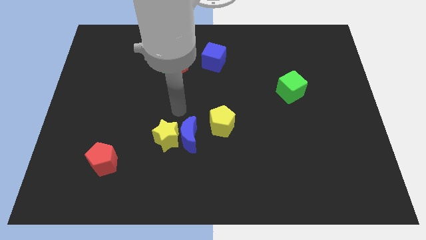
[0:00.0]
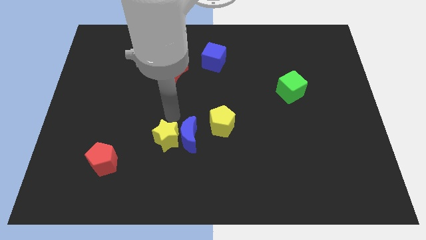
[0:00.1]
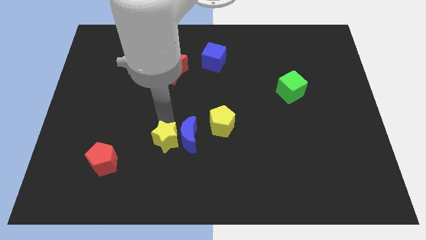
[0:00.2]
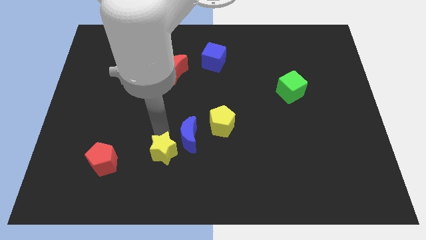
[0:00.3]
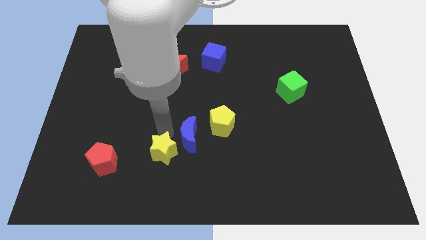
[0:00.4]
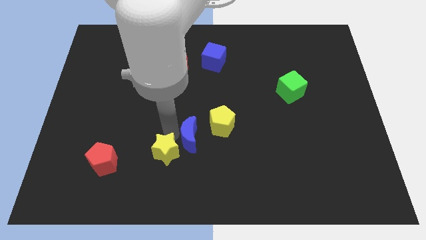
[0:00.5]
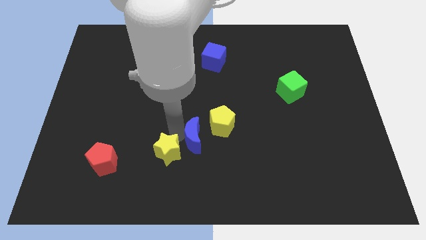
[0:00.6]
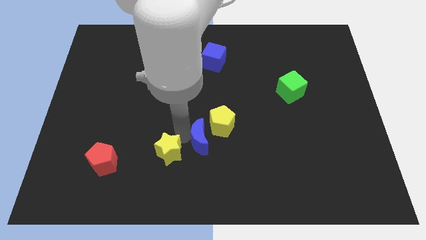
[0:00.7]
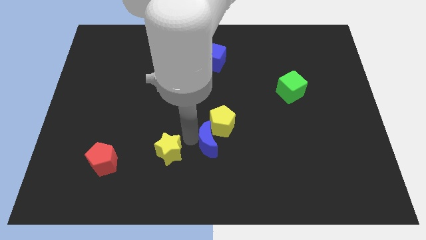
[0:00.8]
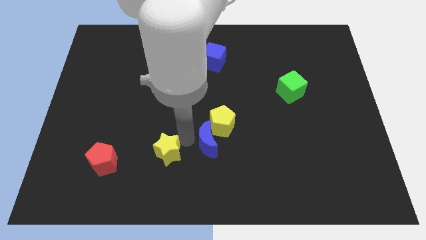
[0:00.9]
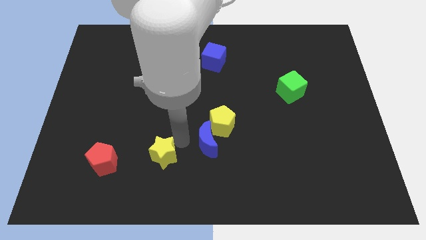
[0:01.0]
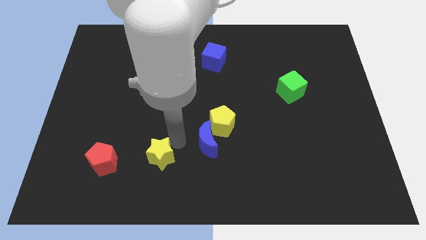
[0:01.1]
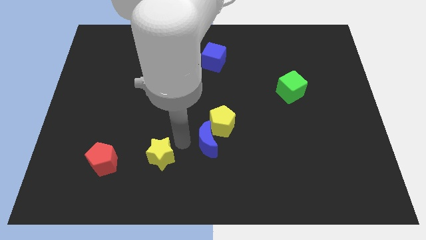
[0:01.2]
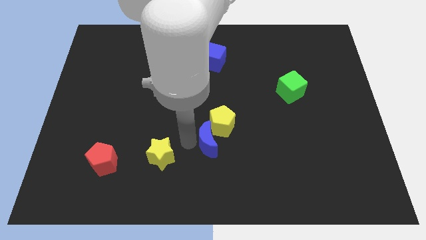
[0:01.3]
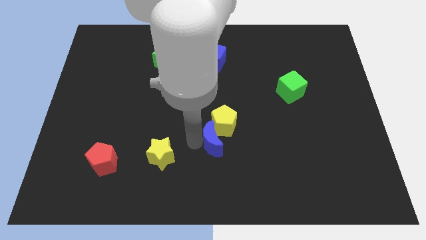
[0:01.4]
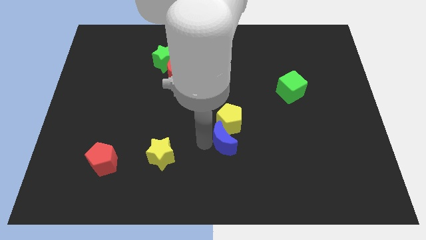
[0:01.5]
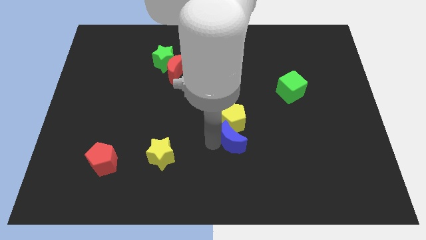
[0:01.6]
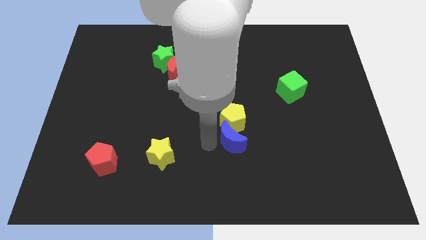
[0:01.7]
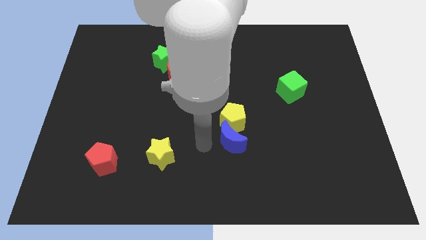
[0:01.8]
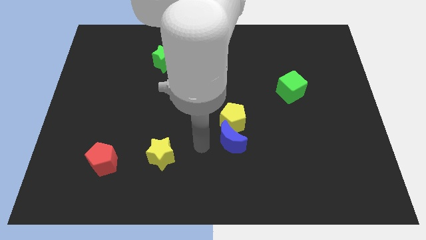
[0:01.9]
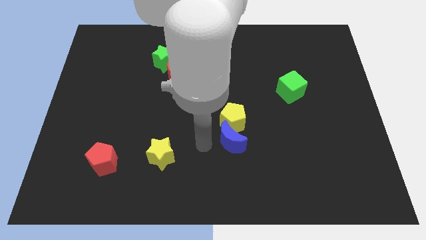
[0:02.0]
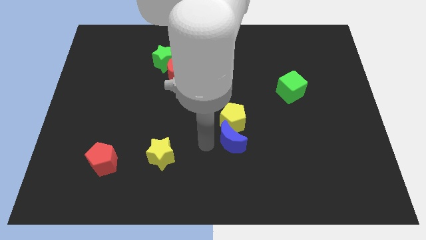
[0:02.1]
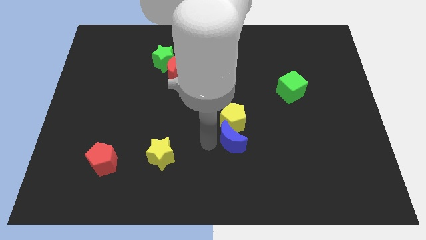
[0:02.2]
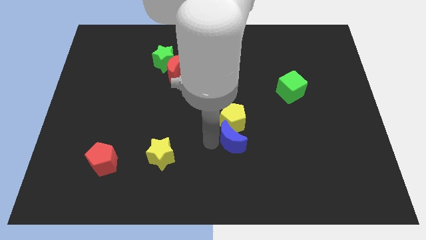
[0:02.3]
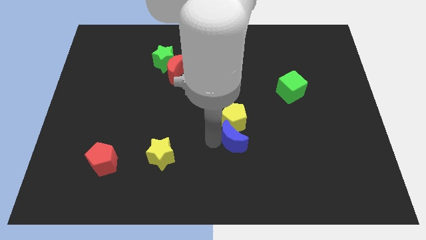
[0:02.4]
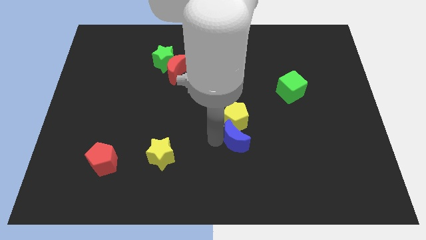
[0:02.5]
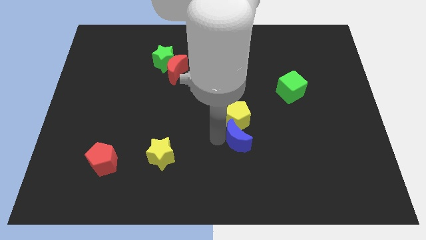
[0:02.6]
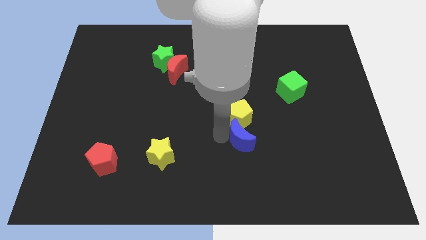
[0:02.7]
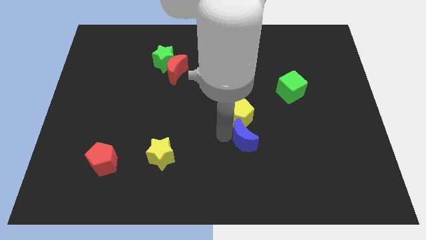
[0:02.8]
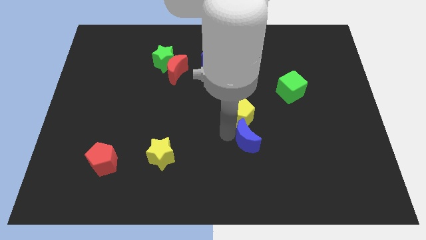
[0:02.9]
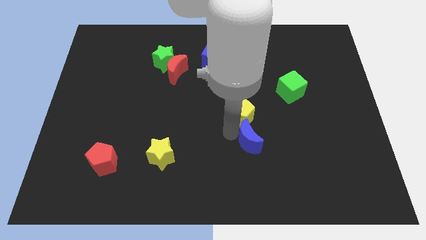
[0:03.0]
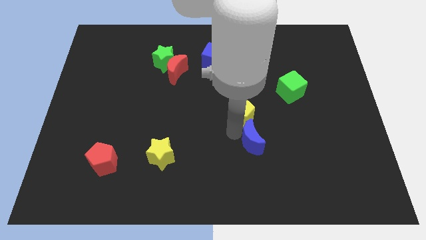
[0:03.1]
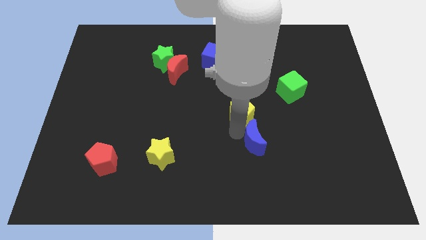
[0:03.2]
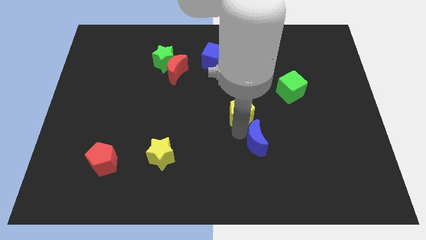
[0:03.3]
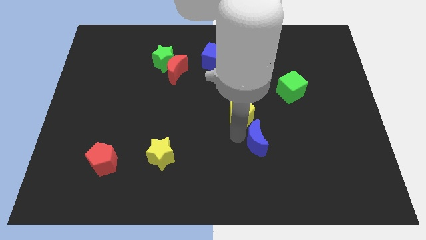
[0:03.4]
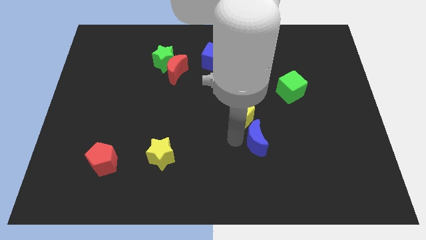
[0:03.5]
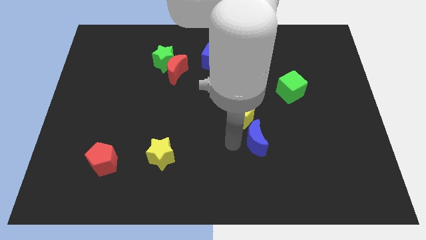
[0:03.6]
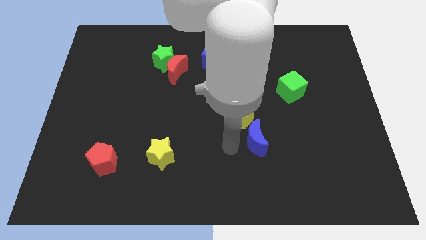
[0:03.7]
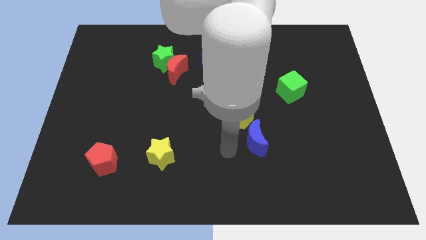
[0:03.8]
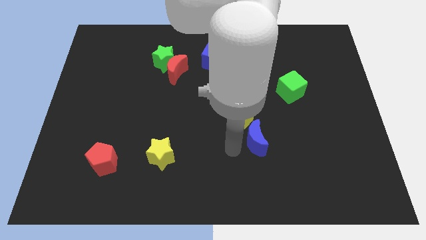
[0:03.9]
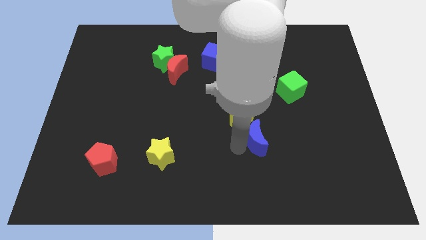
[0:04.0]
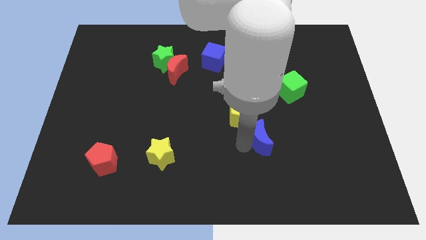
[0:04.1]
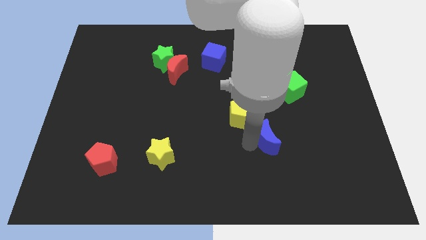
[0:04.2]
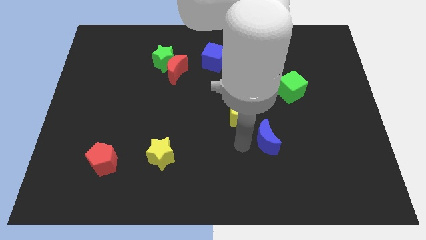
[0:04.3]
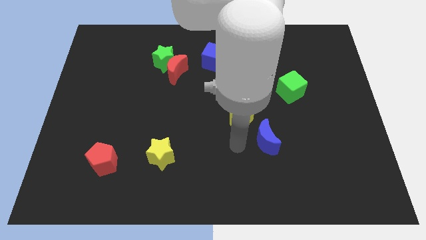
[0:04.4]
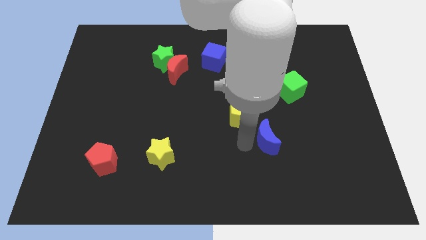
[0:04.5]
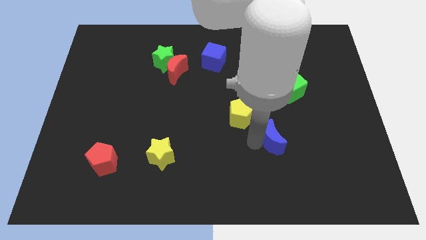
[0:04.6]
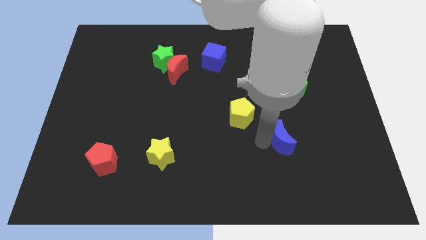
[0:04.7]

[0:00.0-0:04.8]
move the blue moon to the right

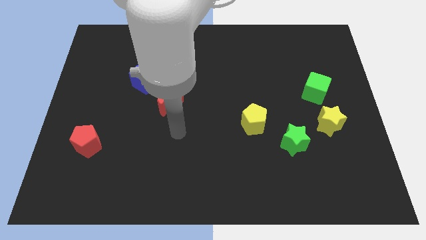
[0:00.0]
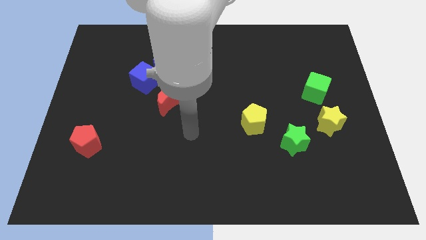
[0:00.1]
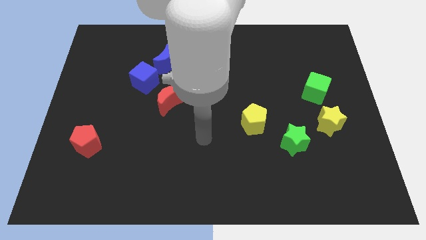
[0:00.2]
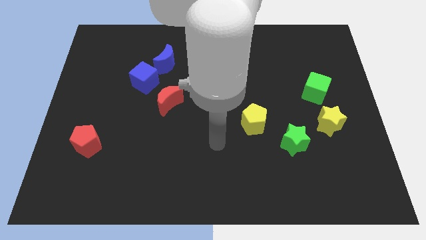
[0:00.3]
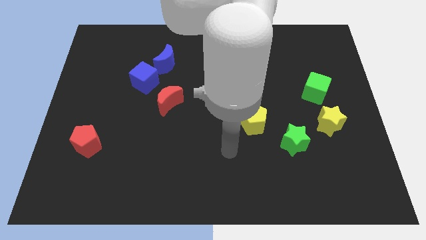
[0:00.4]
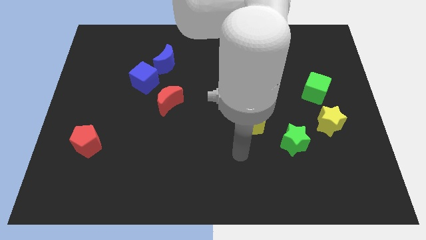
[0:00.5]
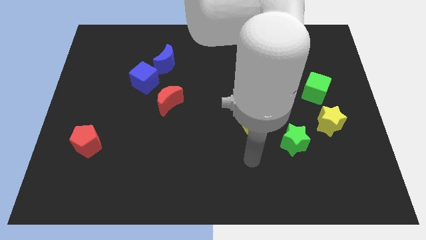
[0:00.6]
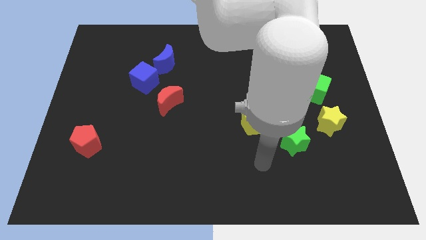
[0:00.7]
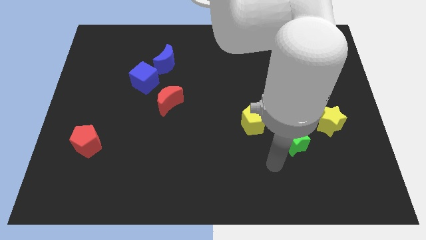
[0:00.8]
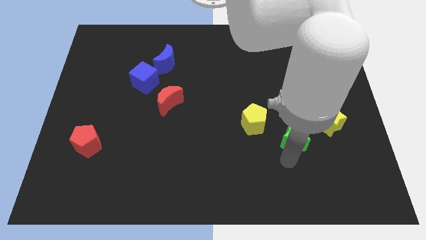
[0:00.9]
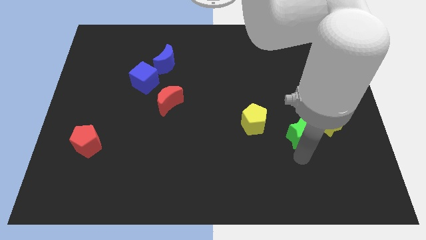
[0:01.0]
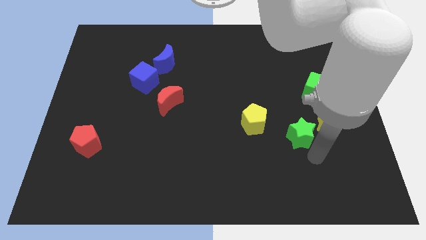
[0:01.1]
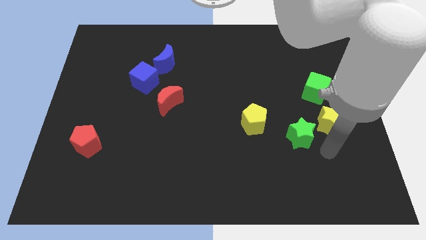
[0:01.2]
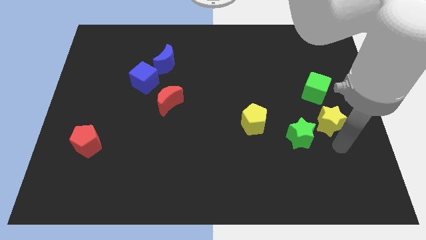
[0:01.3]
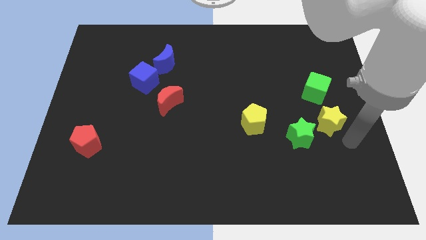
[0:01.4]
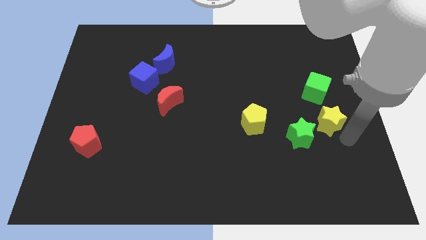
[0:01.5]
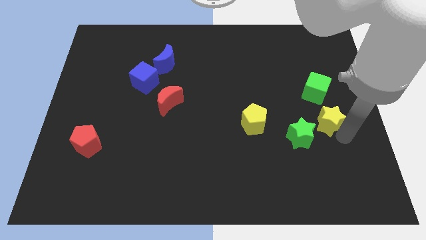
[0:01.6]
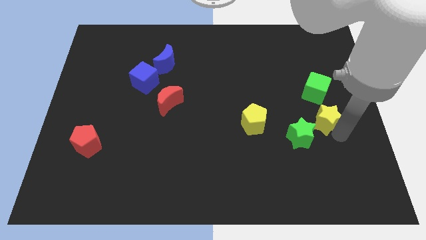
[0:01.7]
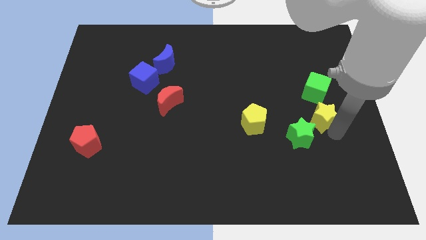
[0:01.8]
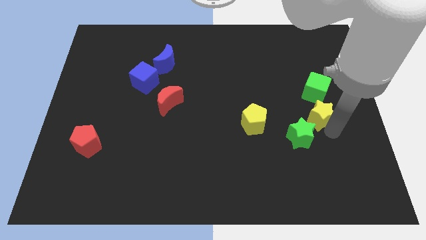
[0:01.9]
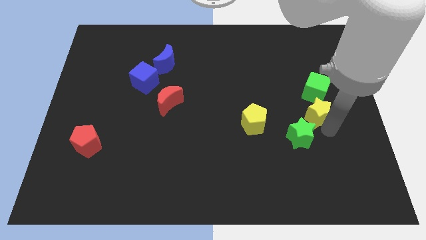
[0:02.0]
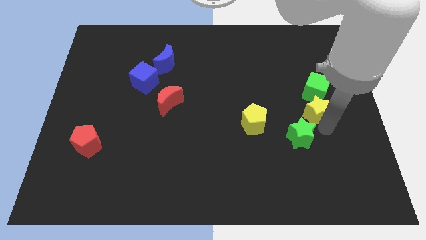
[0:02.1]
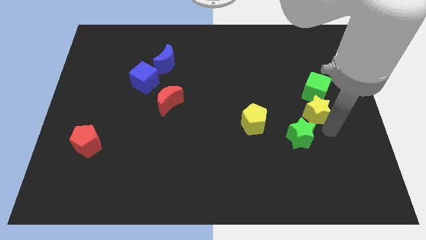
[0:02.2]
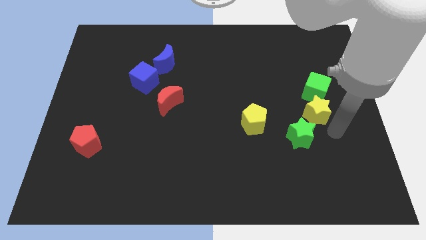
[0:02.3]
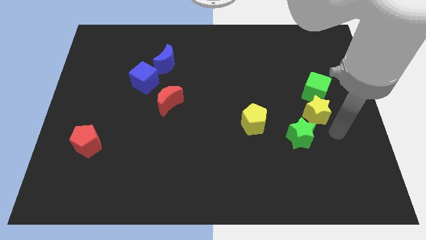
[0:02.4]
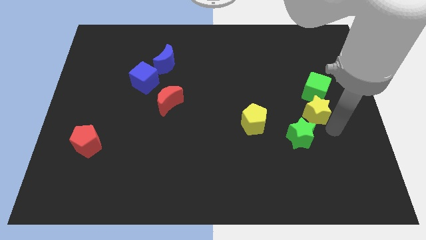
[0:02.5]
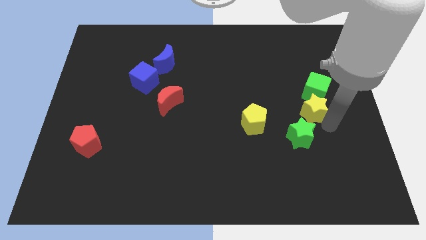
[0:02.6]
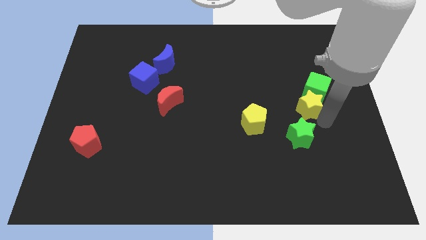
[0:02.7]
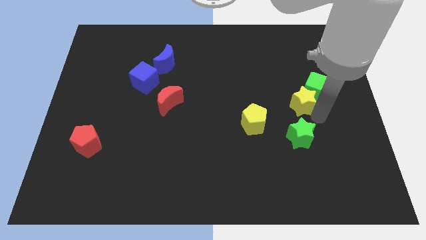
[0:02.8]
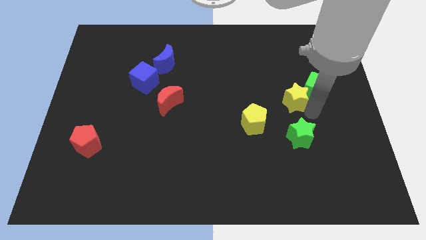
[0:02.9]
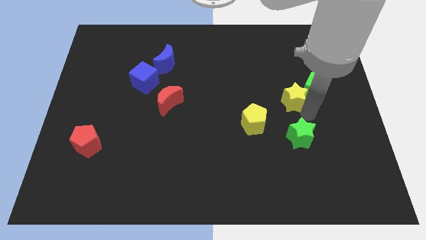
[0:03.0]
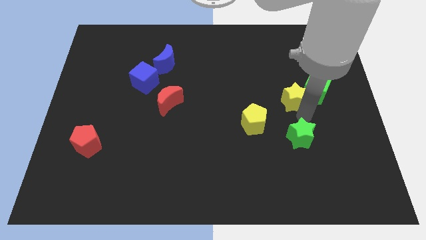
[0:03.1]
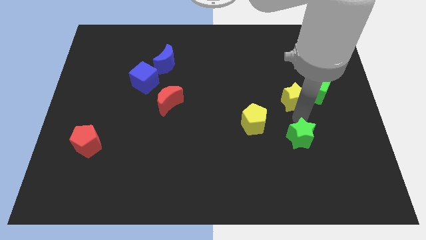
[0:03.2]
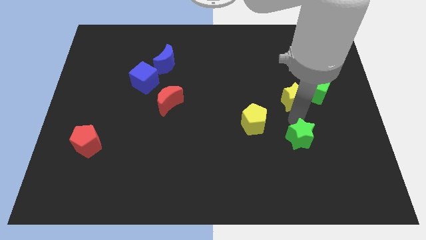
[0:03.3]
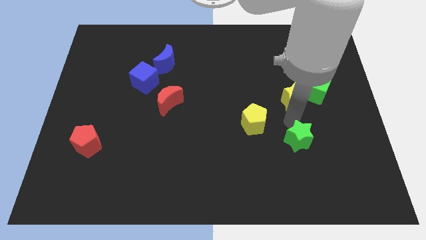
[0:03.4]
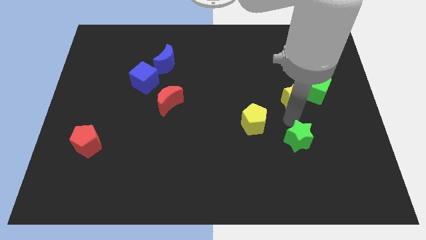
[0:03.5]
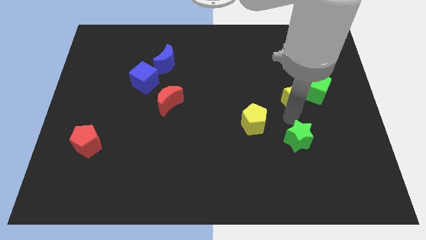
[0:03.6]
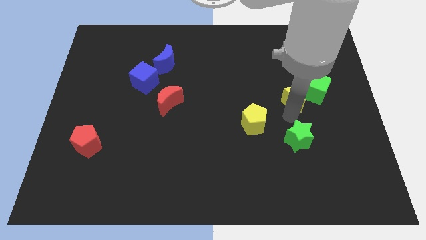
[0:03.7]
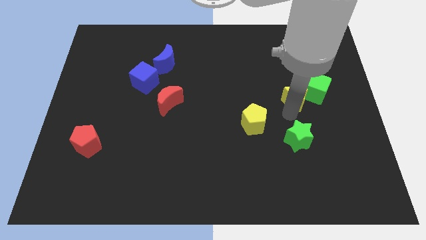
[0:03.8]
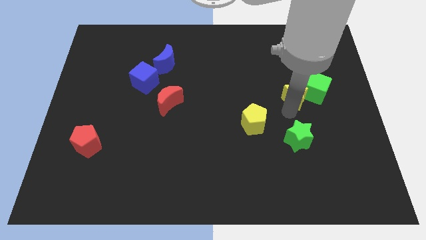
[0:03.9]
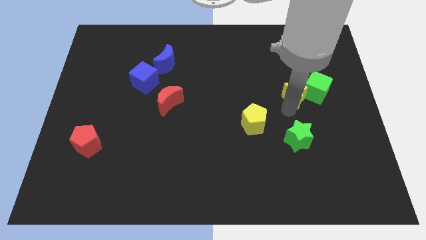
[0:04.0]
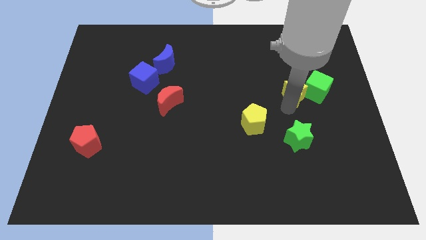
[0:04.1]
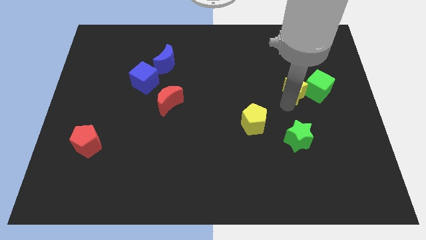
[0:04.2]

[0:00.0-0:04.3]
slide the yellow star a little bit up
